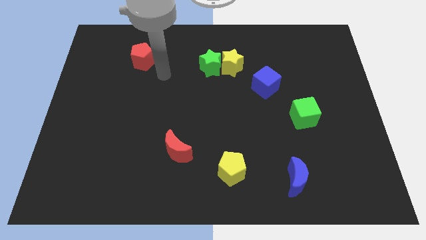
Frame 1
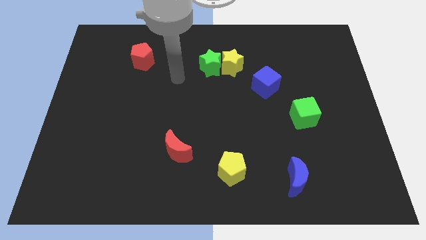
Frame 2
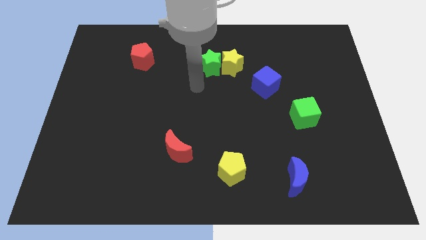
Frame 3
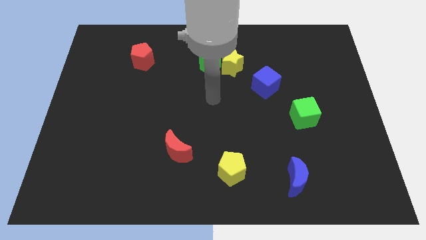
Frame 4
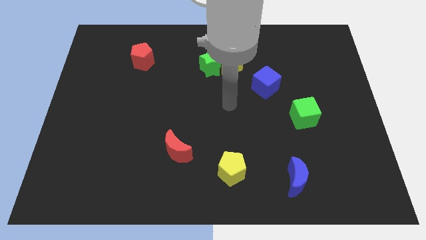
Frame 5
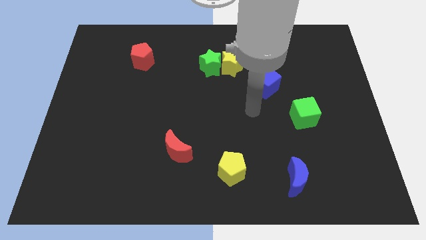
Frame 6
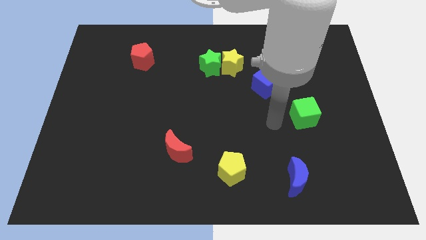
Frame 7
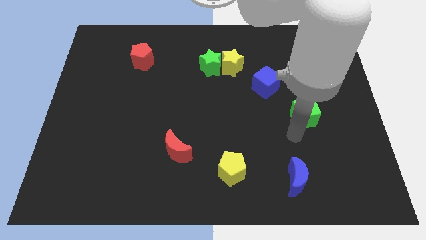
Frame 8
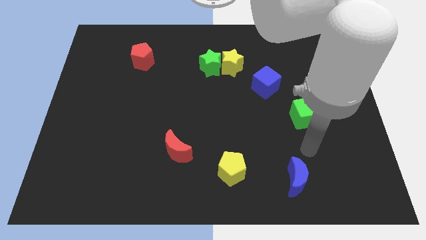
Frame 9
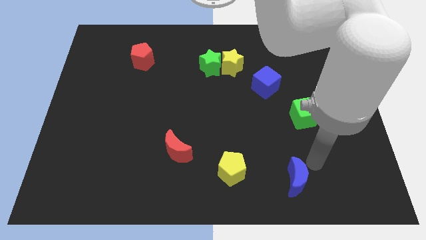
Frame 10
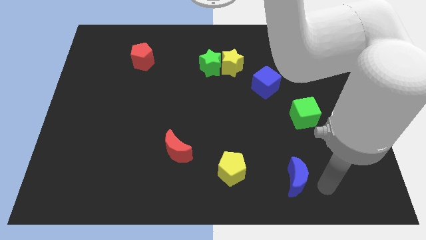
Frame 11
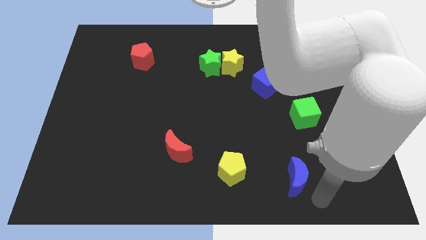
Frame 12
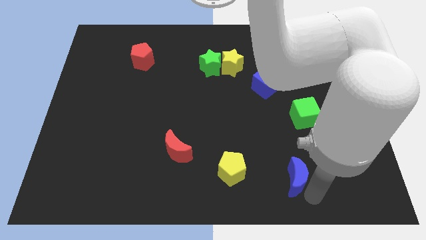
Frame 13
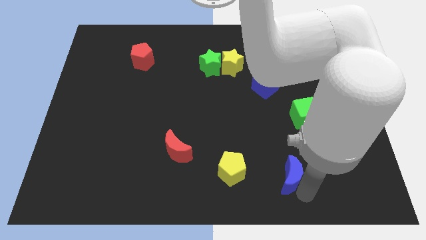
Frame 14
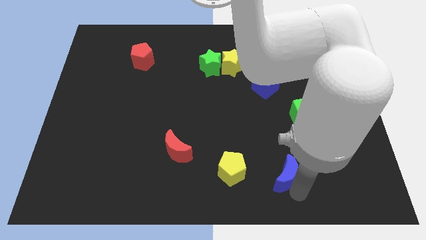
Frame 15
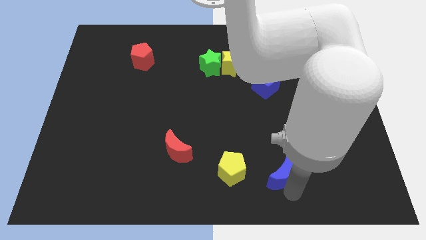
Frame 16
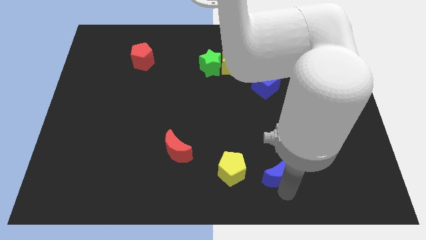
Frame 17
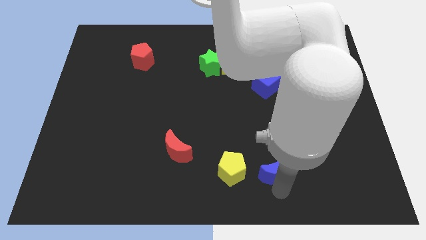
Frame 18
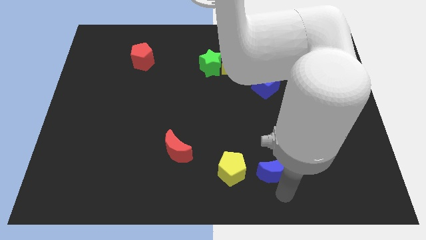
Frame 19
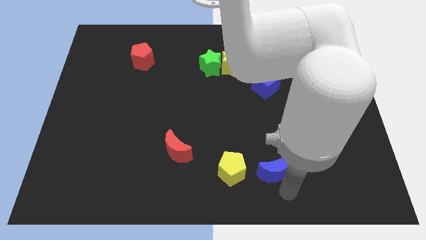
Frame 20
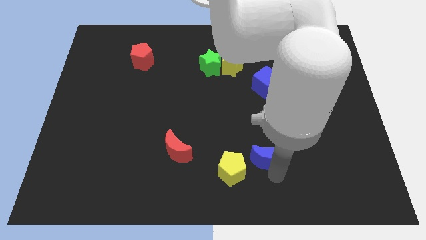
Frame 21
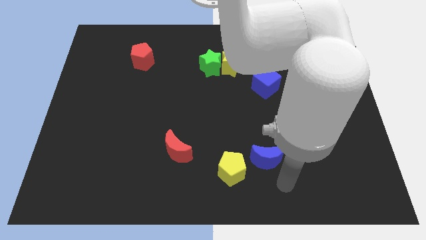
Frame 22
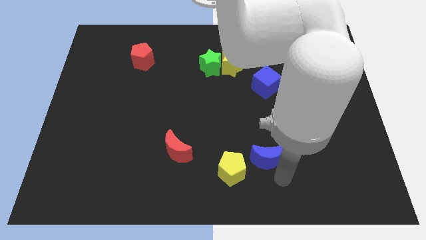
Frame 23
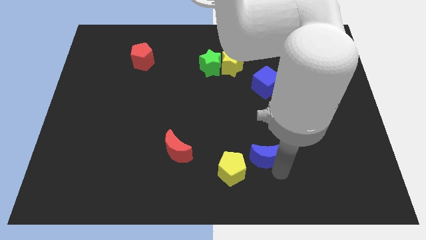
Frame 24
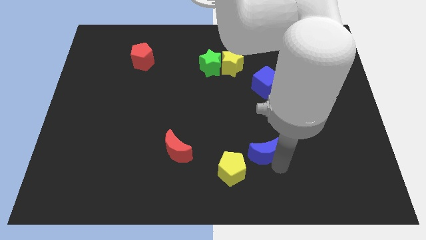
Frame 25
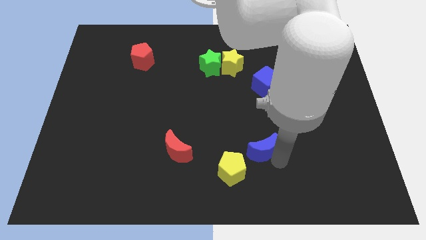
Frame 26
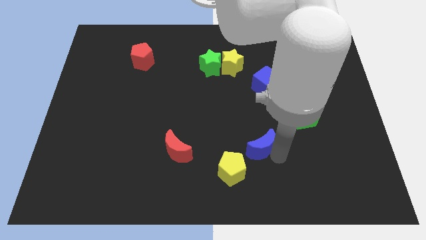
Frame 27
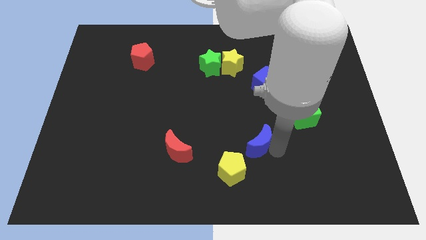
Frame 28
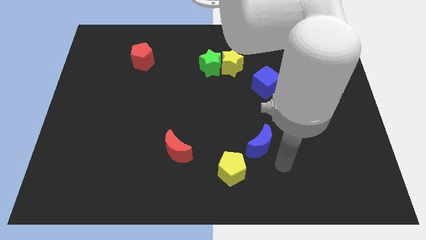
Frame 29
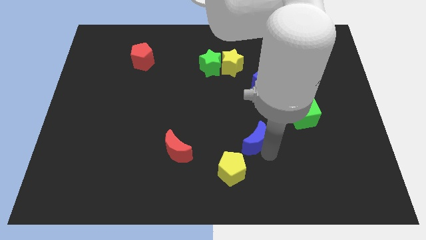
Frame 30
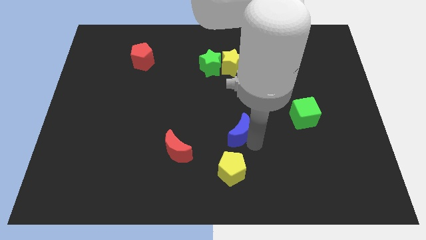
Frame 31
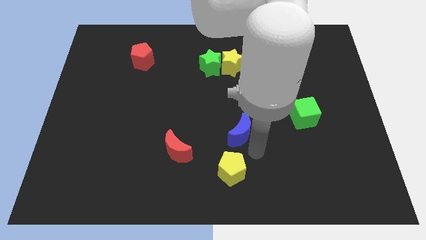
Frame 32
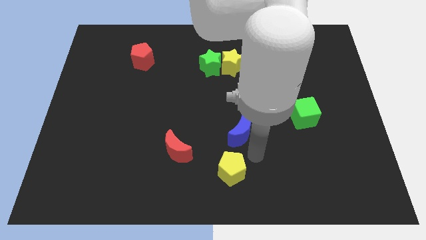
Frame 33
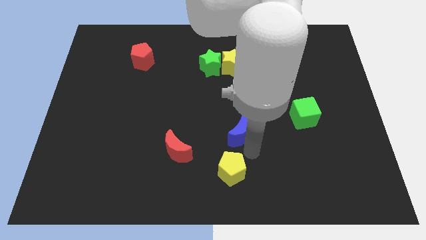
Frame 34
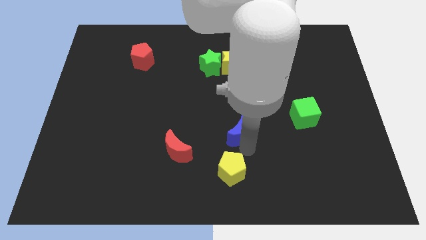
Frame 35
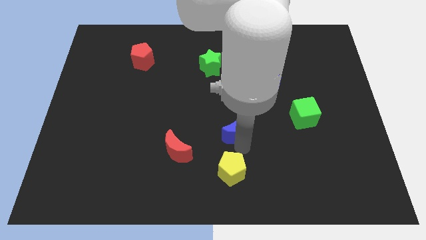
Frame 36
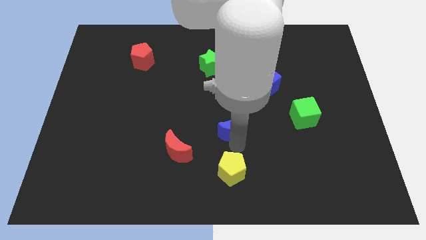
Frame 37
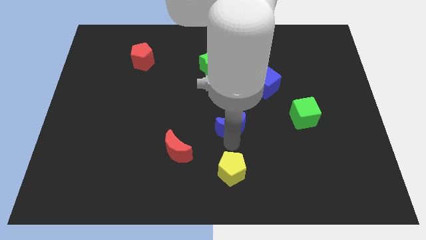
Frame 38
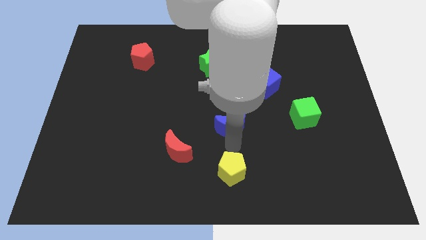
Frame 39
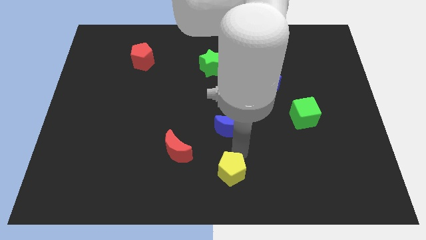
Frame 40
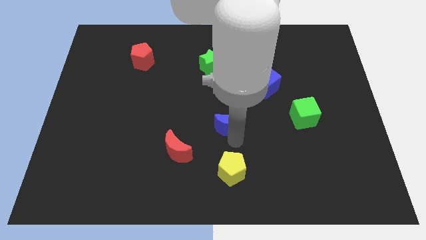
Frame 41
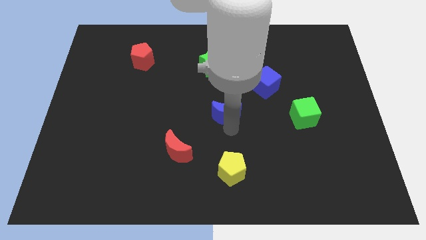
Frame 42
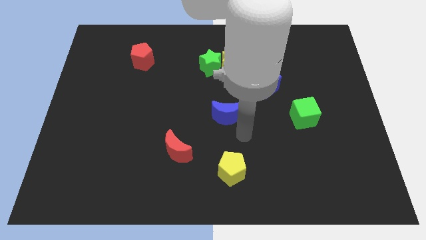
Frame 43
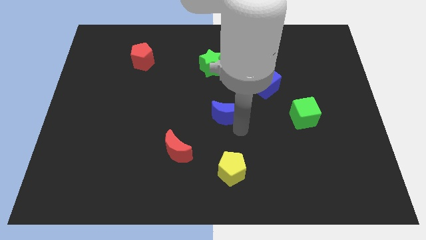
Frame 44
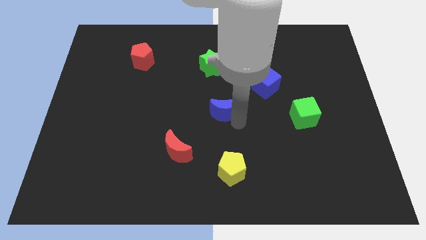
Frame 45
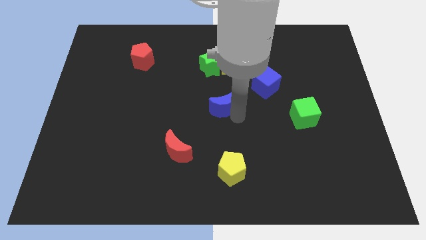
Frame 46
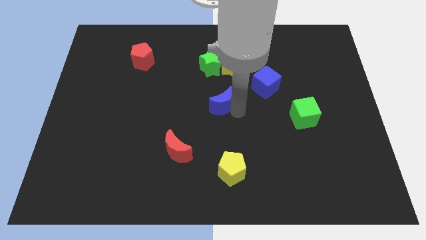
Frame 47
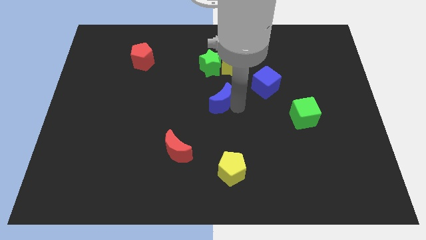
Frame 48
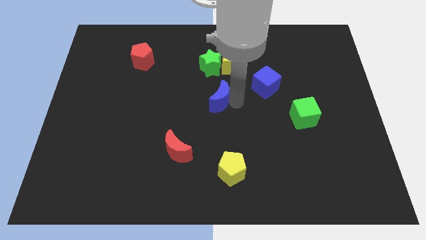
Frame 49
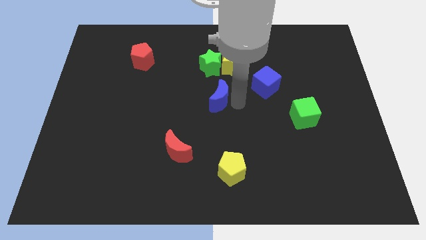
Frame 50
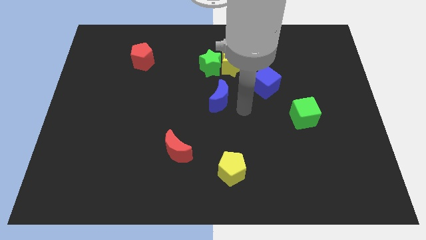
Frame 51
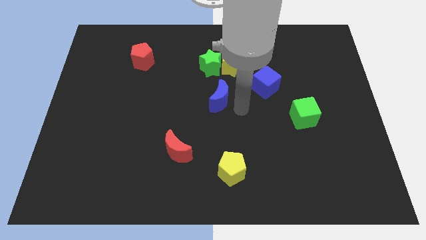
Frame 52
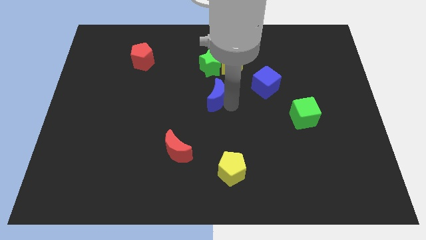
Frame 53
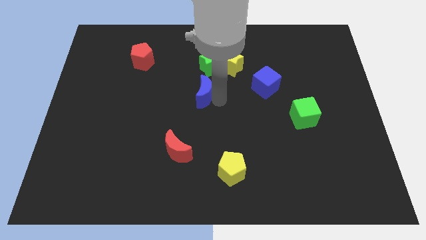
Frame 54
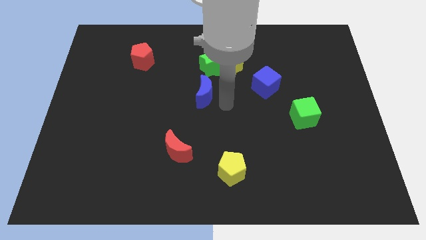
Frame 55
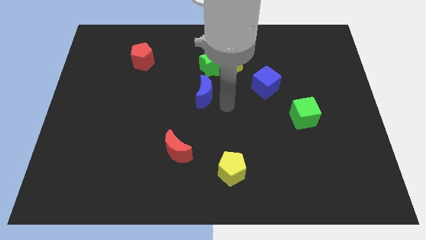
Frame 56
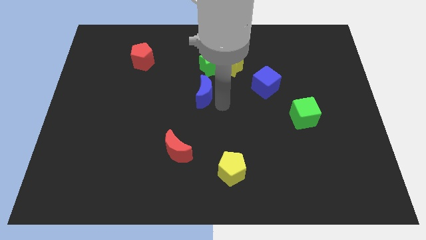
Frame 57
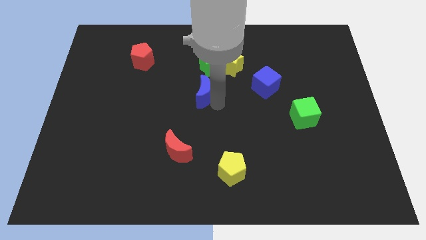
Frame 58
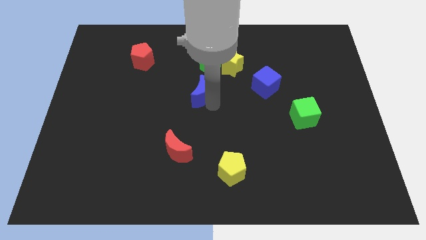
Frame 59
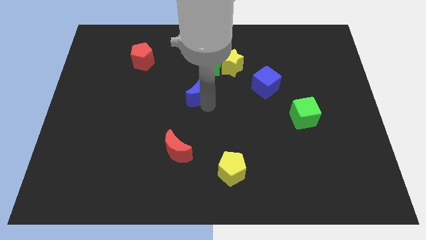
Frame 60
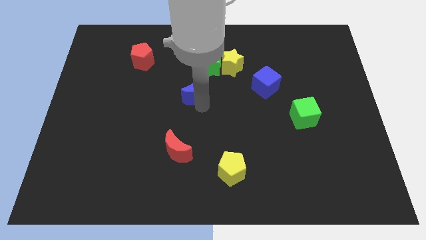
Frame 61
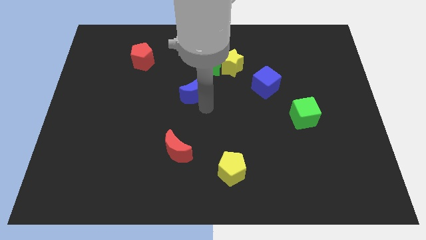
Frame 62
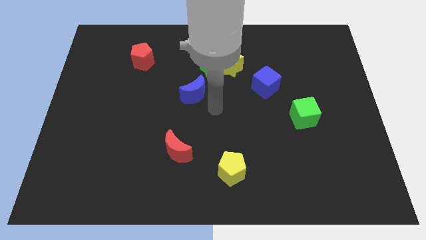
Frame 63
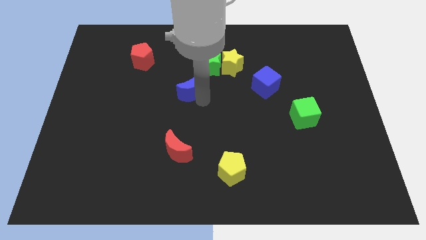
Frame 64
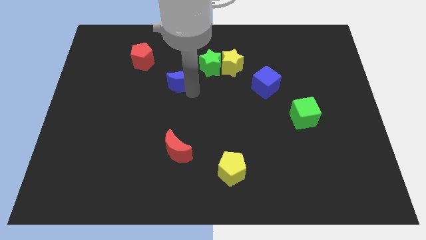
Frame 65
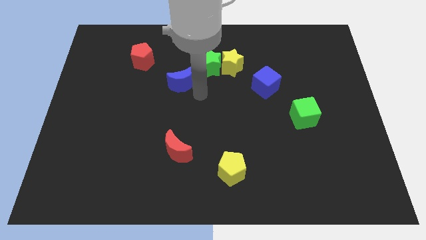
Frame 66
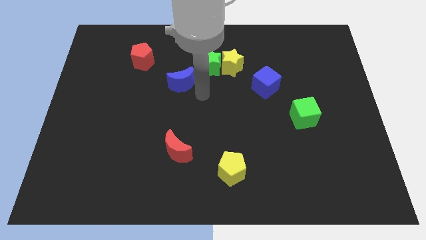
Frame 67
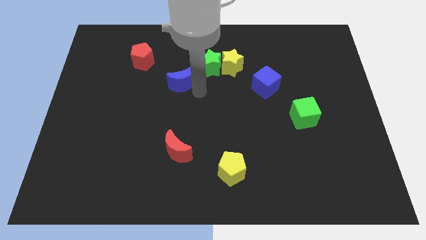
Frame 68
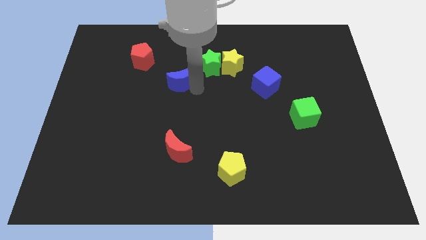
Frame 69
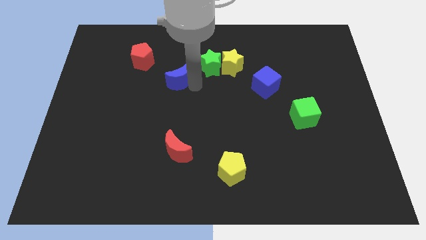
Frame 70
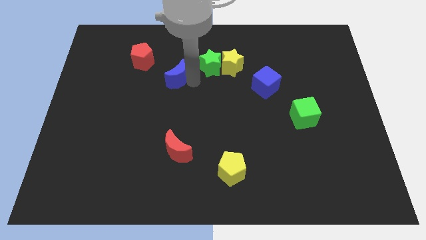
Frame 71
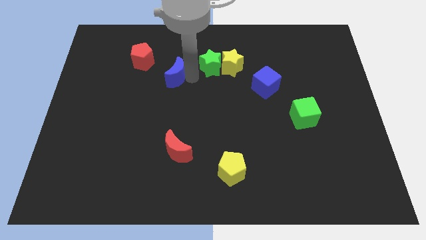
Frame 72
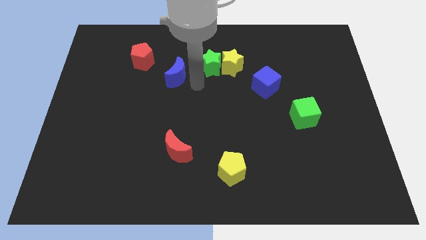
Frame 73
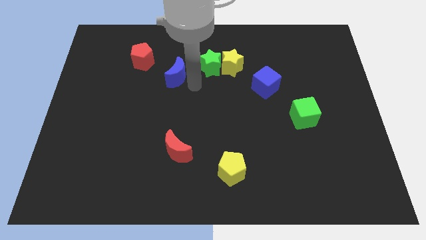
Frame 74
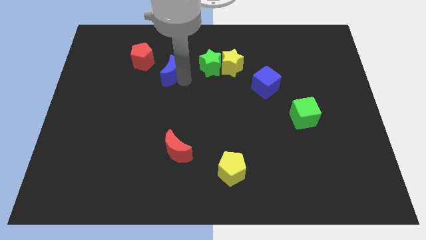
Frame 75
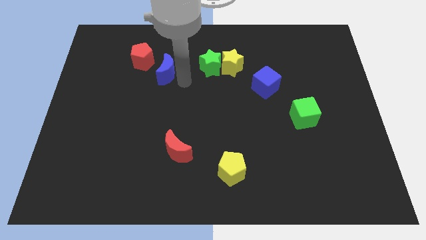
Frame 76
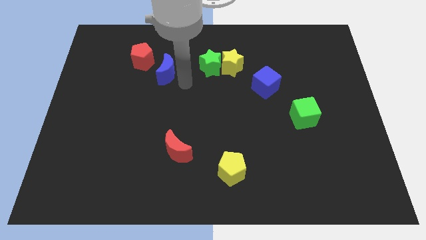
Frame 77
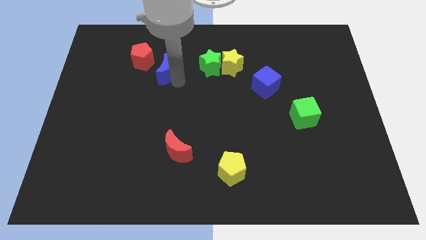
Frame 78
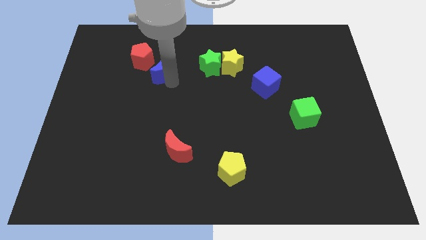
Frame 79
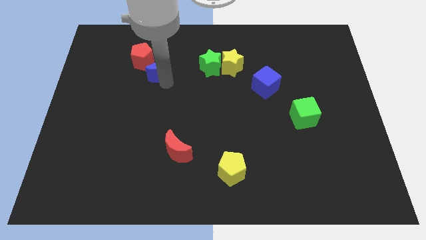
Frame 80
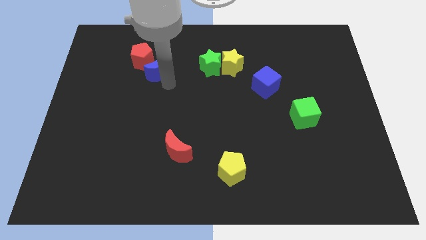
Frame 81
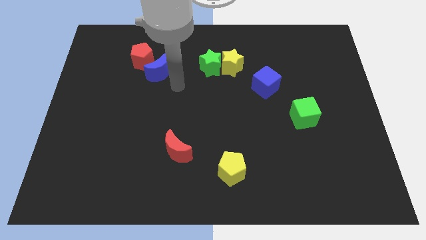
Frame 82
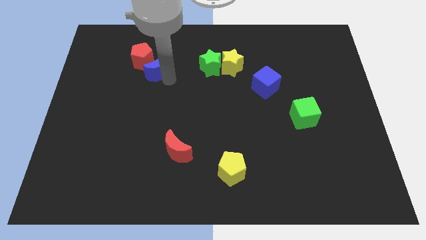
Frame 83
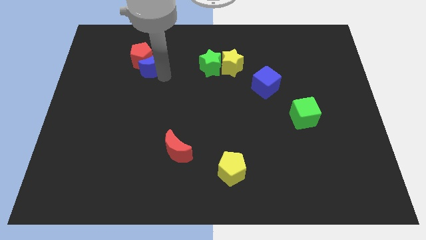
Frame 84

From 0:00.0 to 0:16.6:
push the blue moon close to the red pentagon
